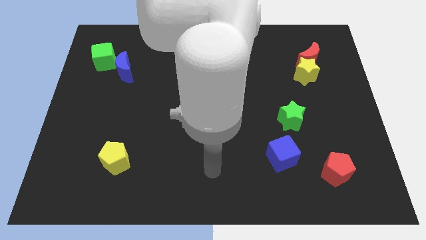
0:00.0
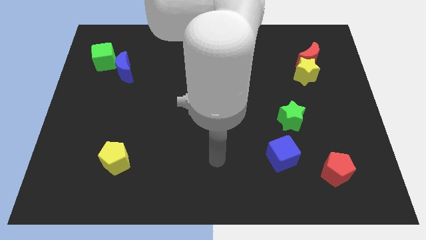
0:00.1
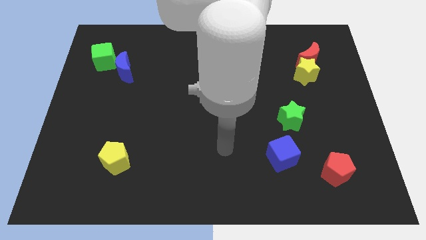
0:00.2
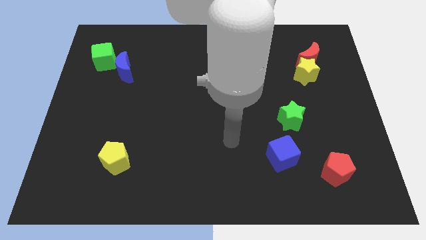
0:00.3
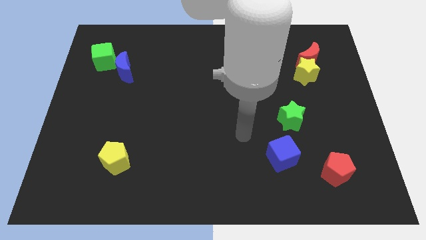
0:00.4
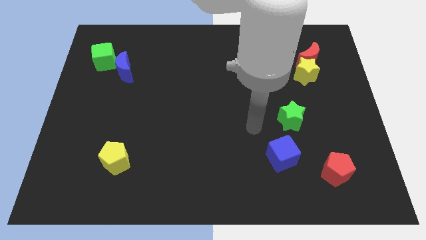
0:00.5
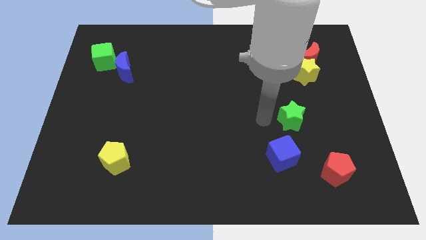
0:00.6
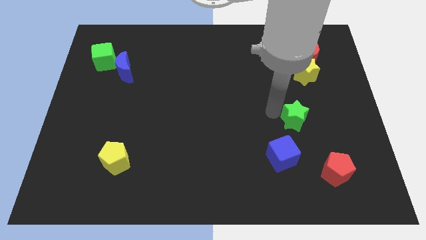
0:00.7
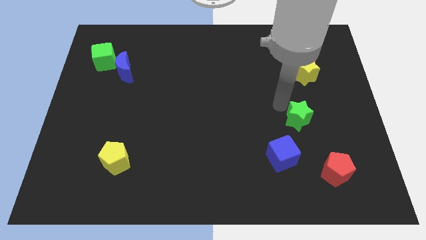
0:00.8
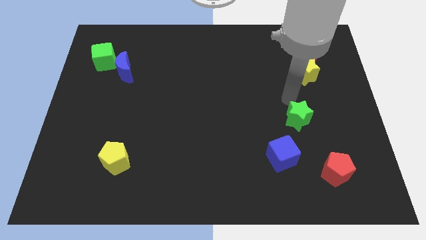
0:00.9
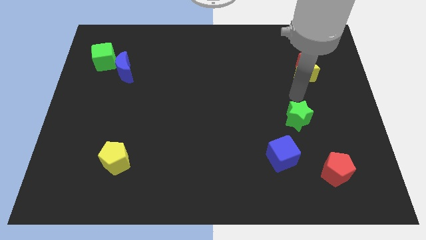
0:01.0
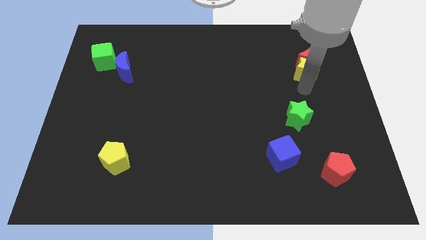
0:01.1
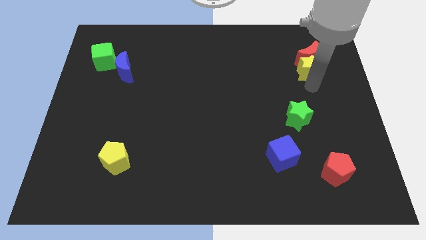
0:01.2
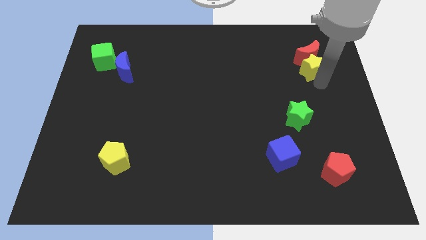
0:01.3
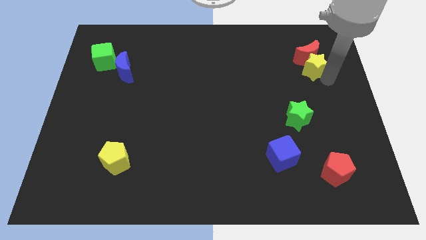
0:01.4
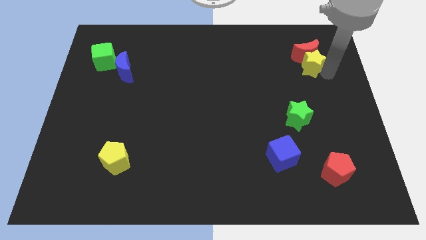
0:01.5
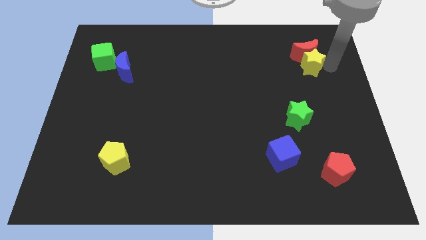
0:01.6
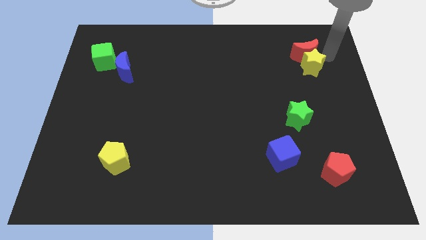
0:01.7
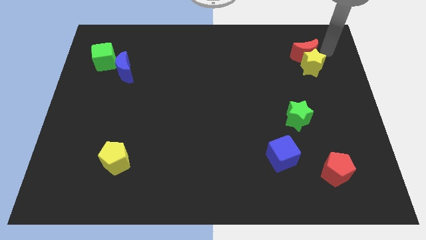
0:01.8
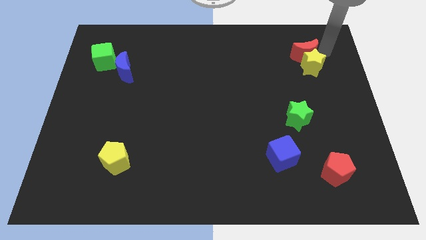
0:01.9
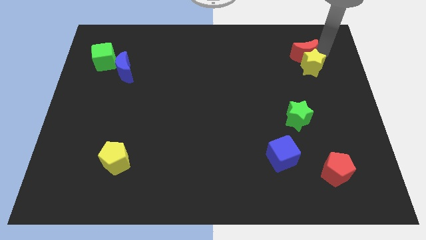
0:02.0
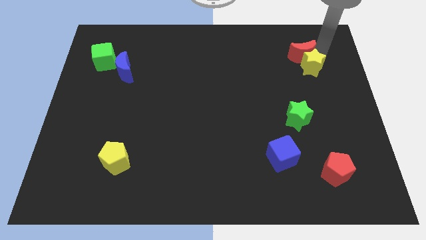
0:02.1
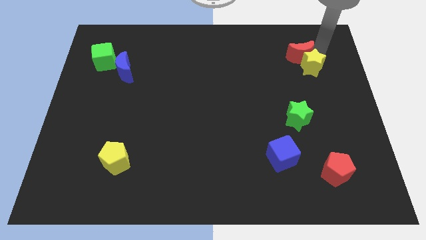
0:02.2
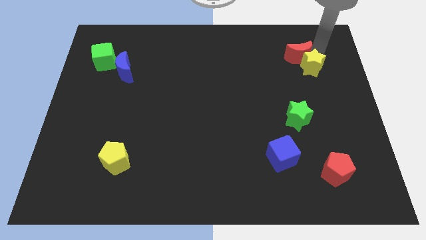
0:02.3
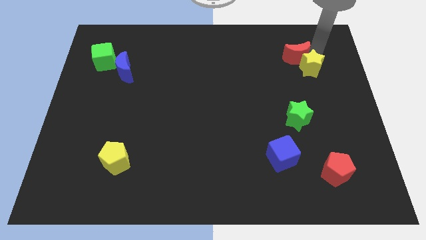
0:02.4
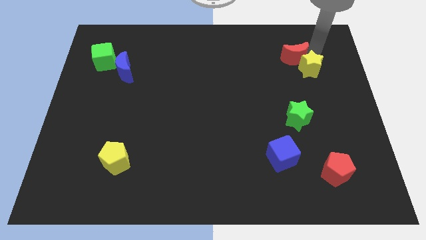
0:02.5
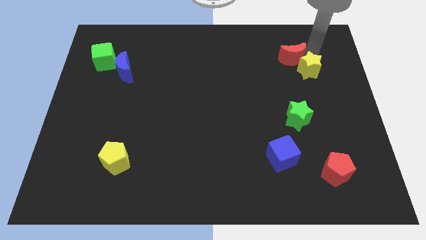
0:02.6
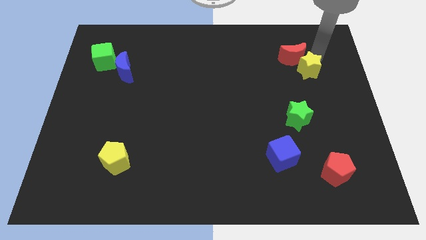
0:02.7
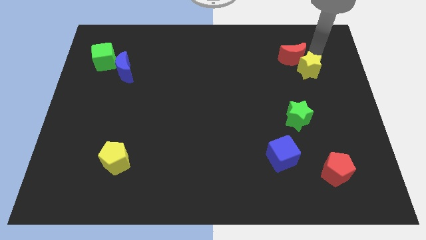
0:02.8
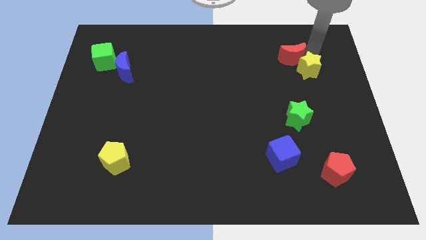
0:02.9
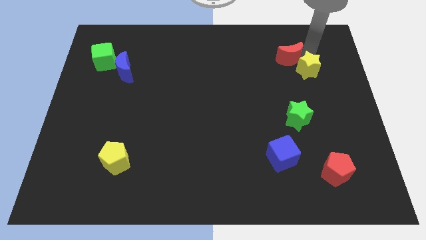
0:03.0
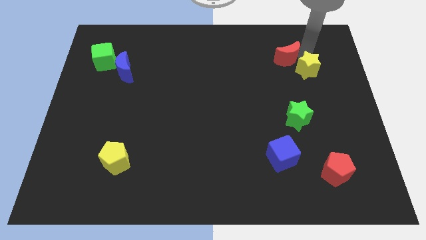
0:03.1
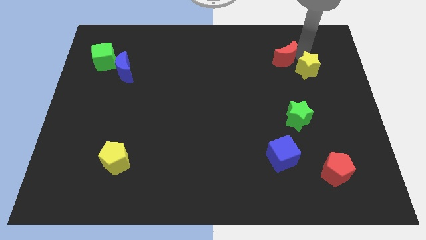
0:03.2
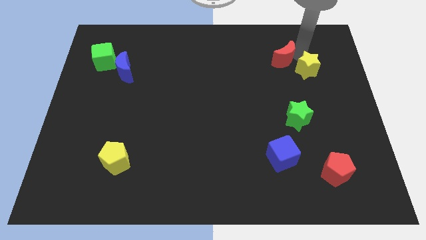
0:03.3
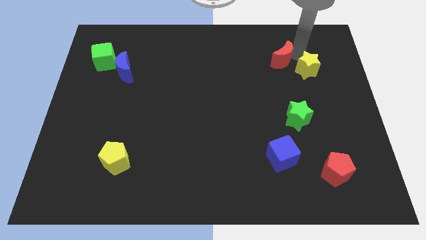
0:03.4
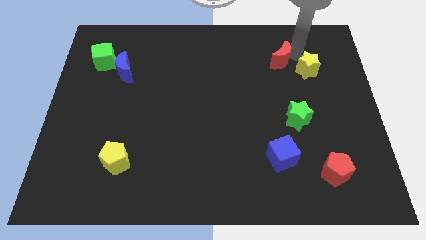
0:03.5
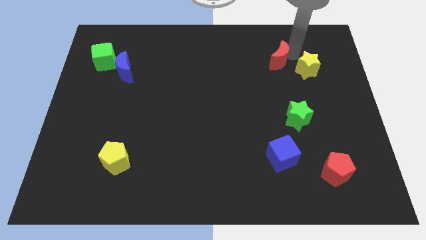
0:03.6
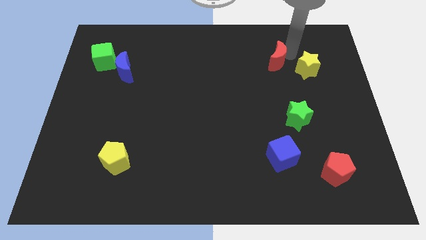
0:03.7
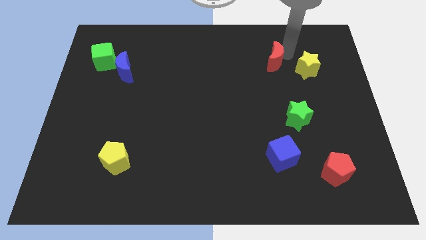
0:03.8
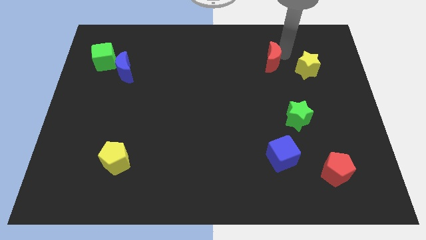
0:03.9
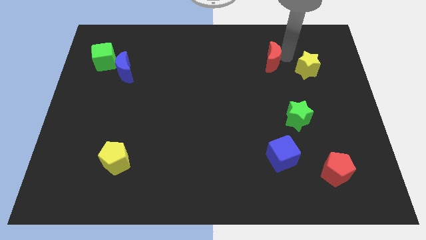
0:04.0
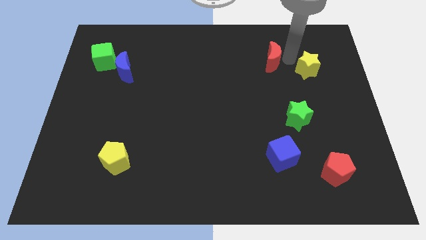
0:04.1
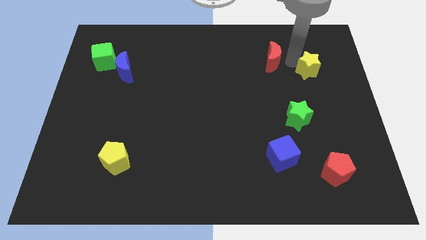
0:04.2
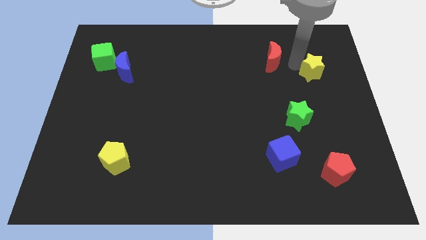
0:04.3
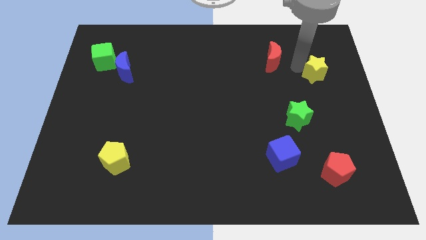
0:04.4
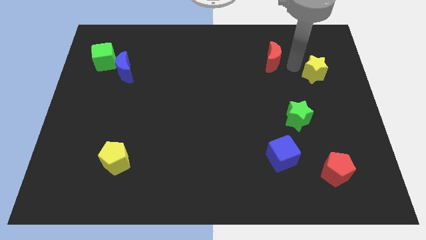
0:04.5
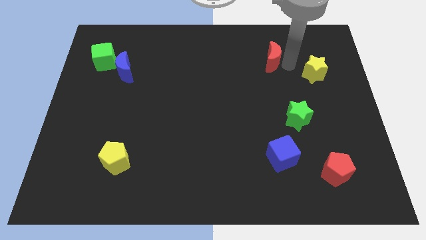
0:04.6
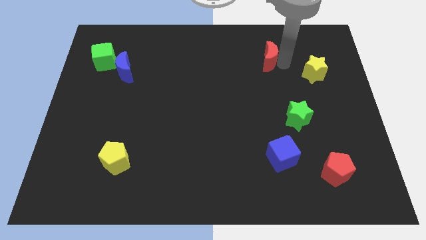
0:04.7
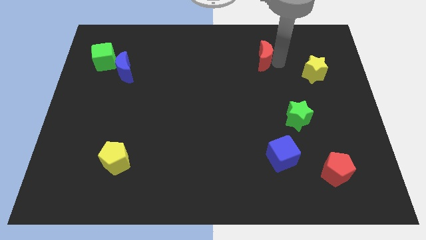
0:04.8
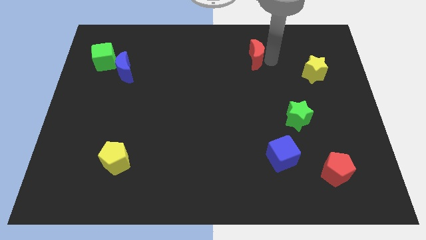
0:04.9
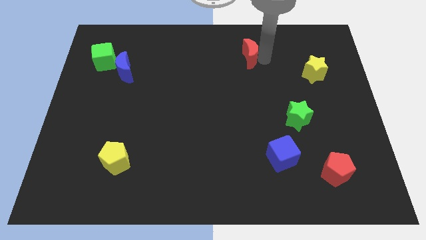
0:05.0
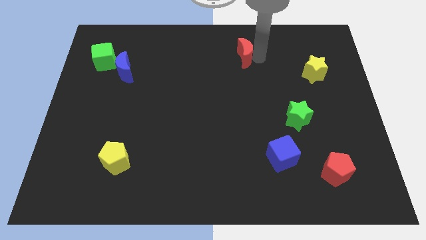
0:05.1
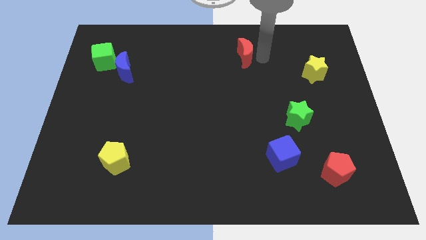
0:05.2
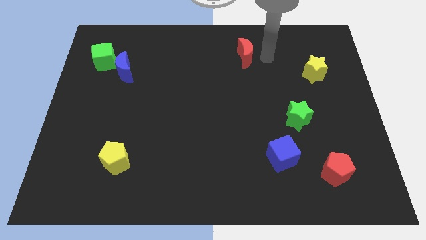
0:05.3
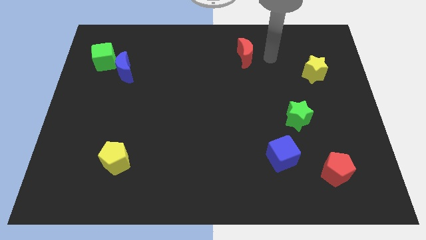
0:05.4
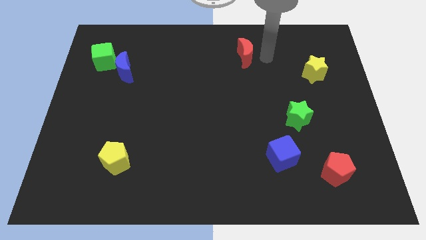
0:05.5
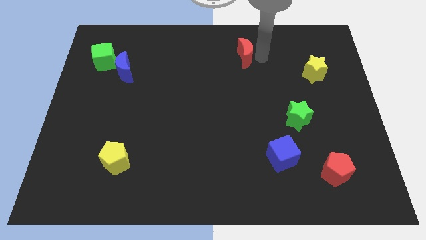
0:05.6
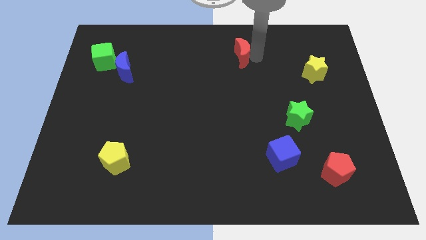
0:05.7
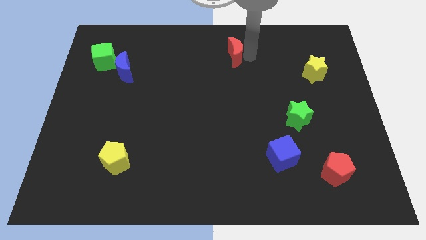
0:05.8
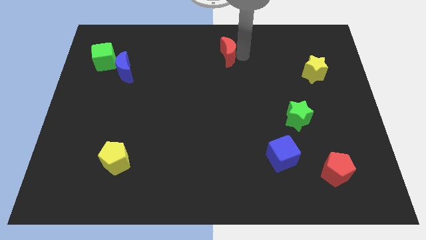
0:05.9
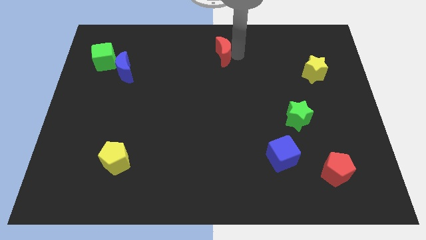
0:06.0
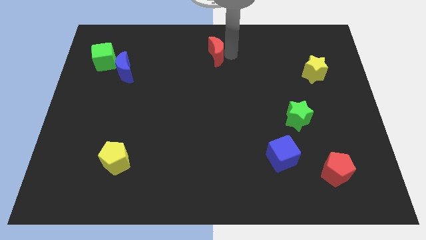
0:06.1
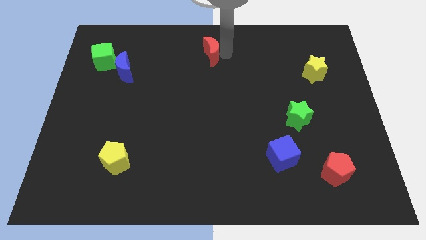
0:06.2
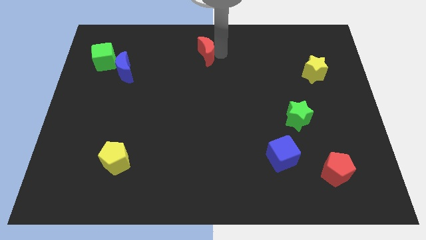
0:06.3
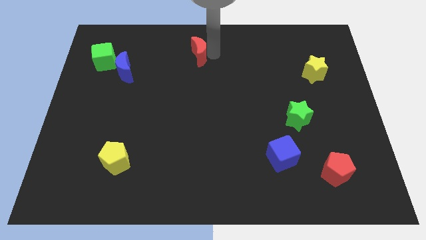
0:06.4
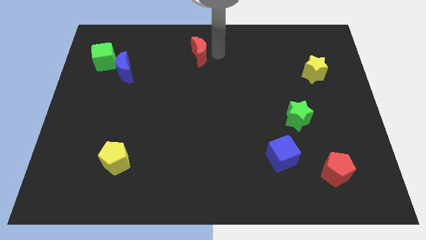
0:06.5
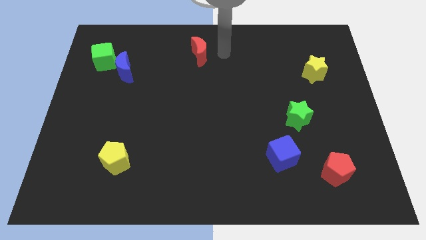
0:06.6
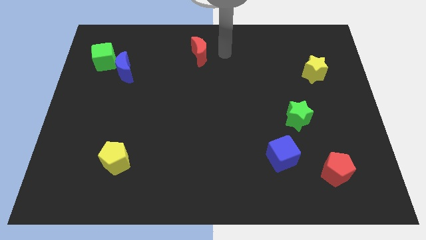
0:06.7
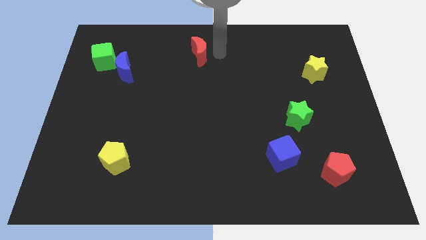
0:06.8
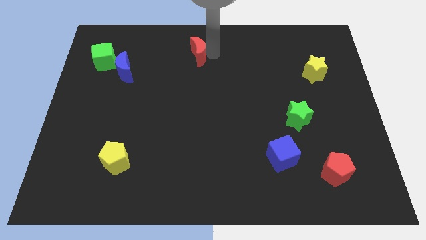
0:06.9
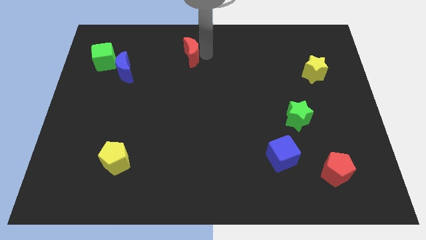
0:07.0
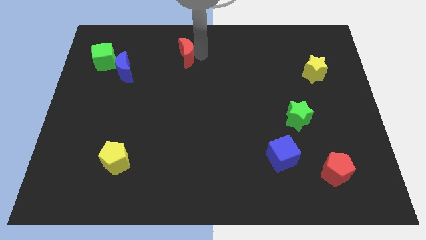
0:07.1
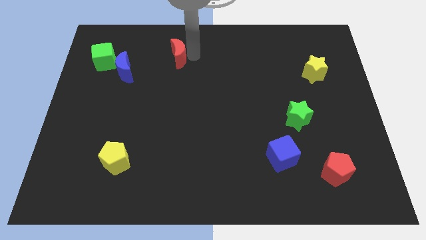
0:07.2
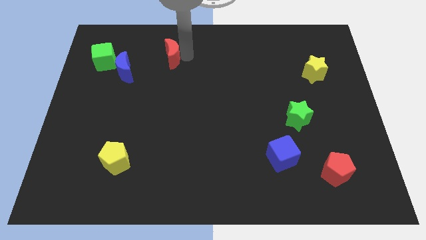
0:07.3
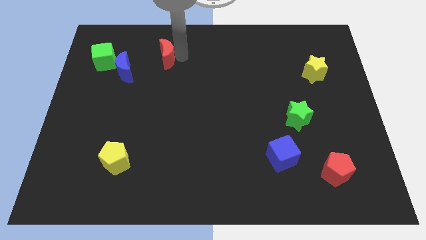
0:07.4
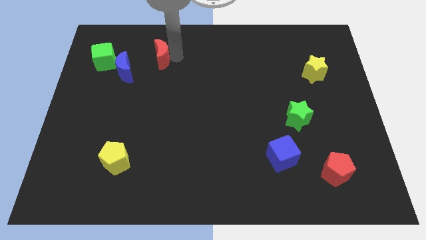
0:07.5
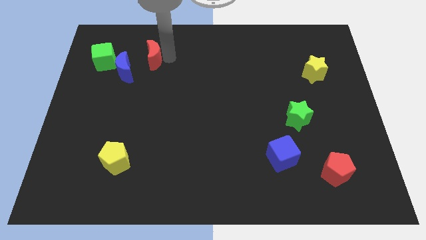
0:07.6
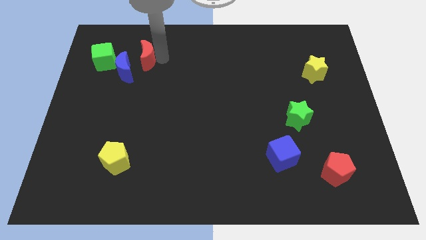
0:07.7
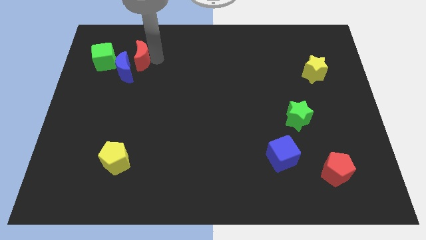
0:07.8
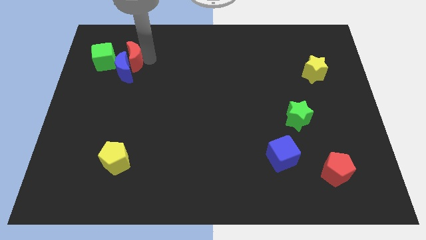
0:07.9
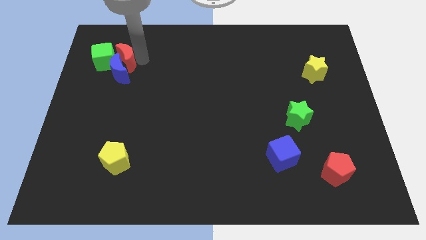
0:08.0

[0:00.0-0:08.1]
put the red moon towards the green cube
